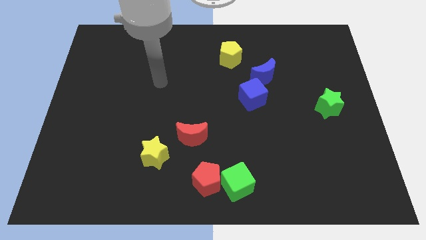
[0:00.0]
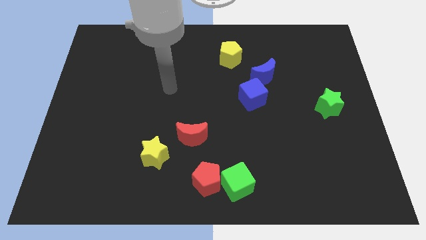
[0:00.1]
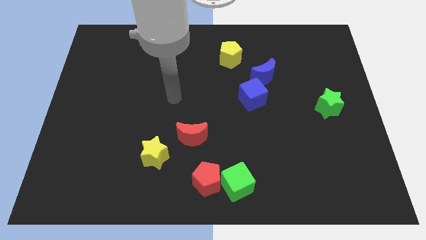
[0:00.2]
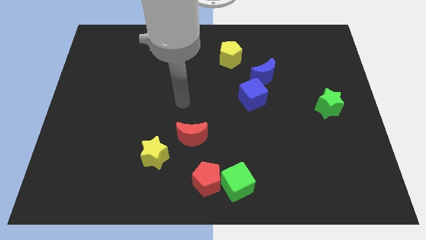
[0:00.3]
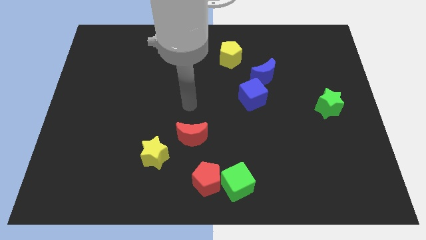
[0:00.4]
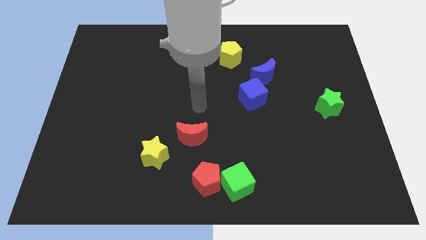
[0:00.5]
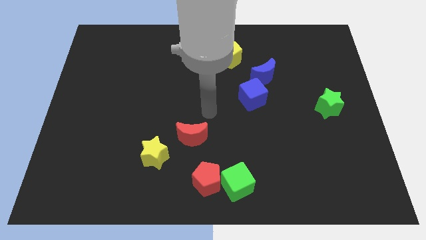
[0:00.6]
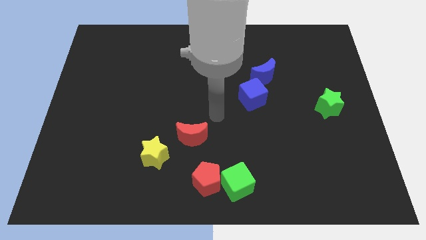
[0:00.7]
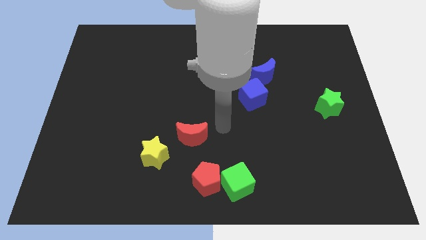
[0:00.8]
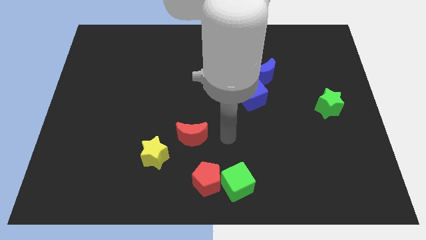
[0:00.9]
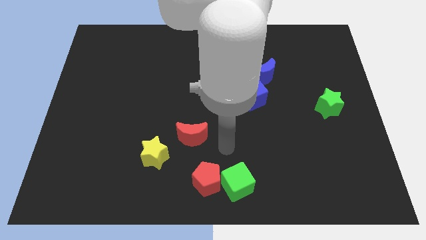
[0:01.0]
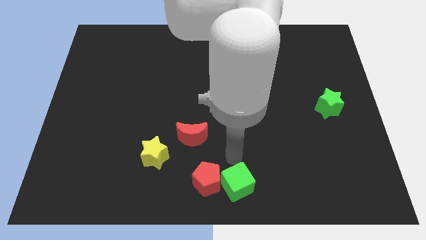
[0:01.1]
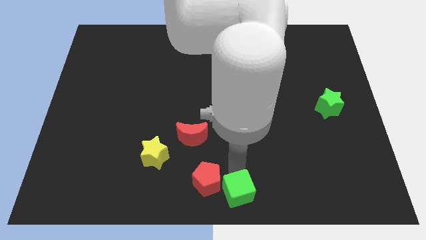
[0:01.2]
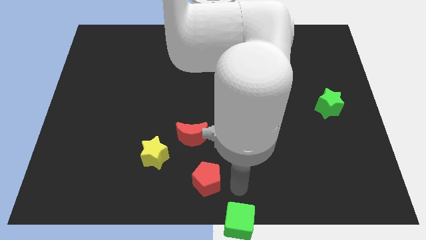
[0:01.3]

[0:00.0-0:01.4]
pull the red pentagon apart from the green cube

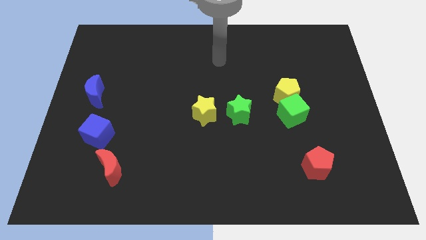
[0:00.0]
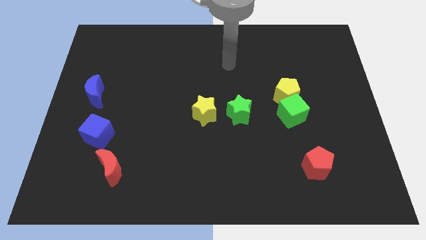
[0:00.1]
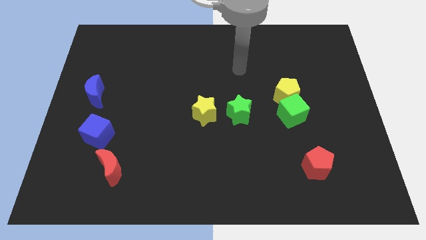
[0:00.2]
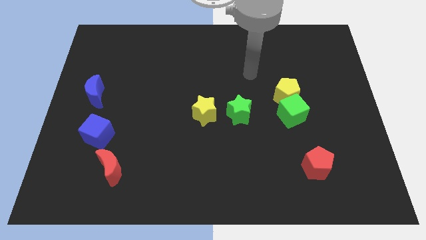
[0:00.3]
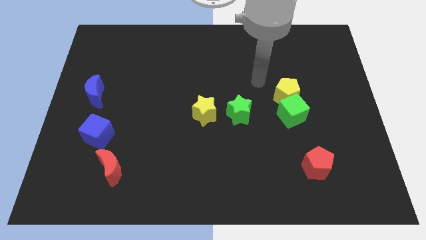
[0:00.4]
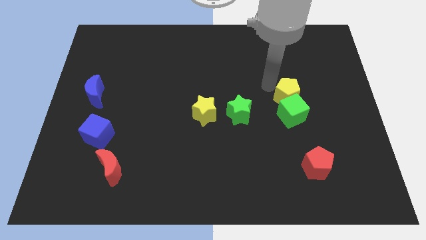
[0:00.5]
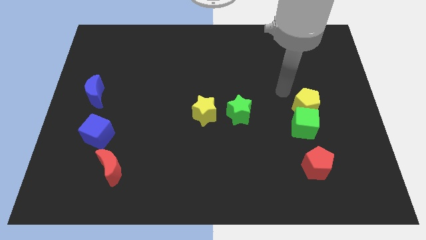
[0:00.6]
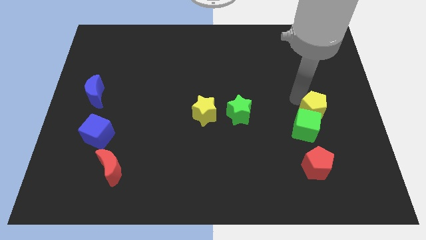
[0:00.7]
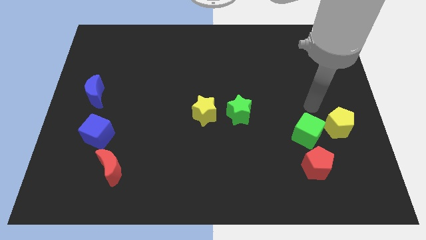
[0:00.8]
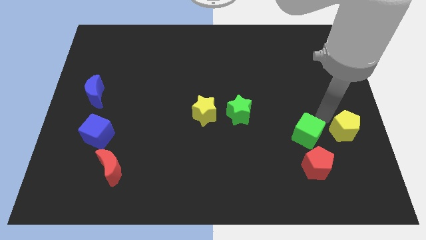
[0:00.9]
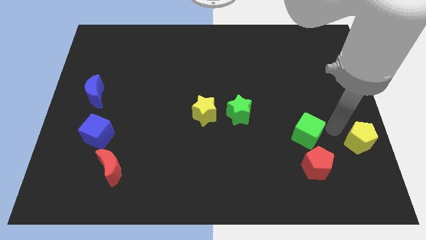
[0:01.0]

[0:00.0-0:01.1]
separate the green cube from the yellow pentagon

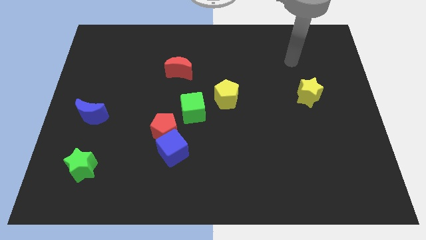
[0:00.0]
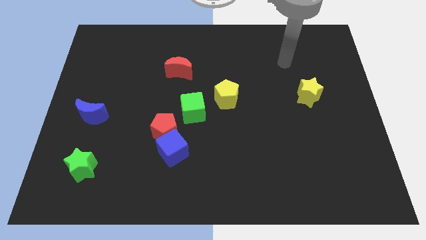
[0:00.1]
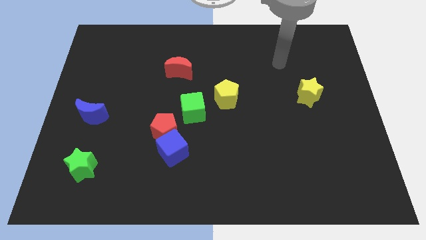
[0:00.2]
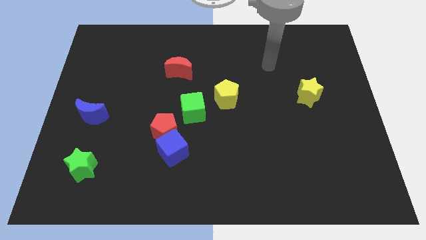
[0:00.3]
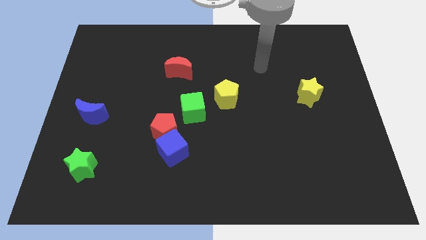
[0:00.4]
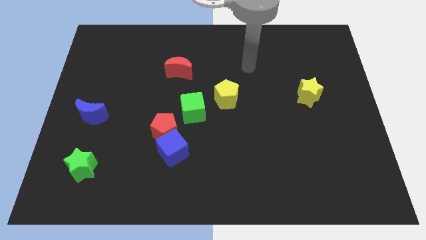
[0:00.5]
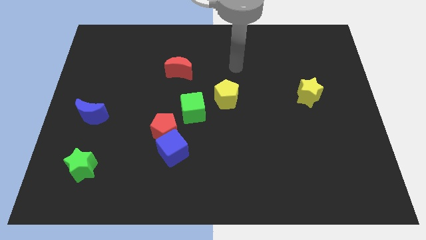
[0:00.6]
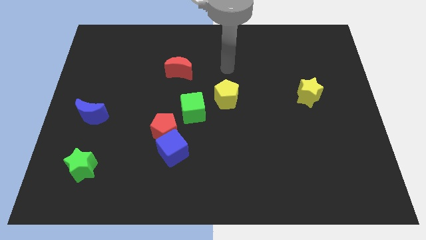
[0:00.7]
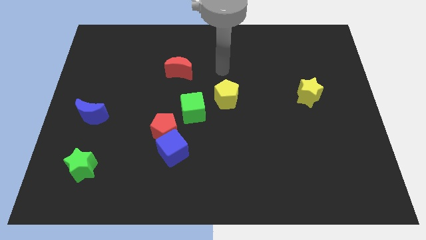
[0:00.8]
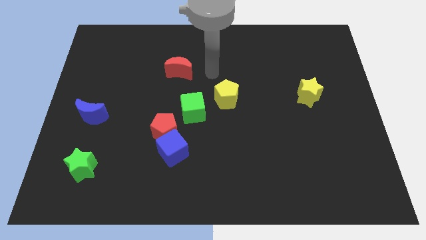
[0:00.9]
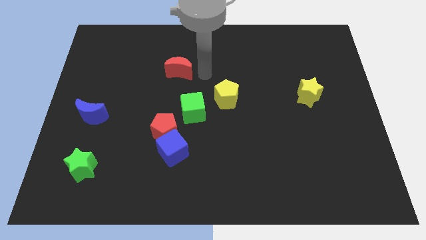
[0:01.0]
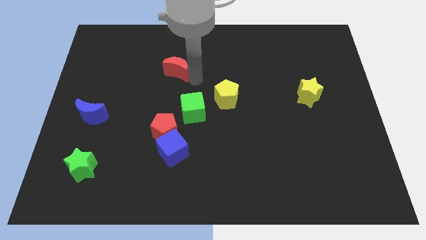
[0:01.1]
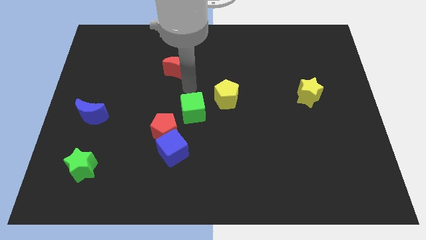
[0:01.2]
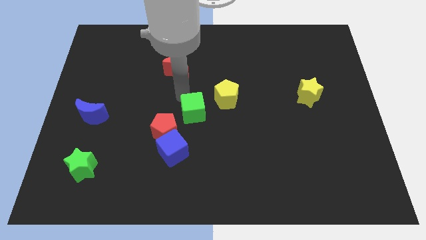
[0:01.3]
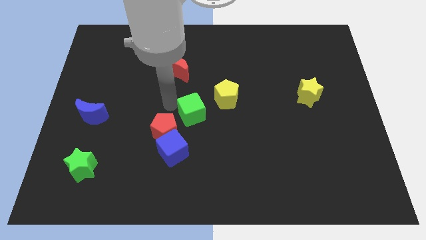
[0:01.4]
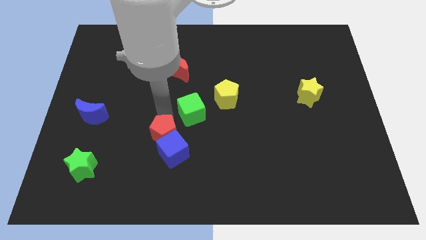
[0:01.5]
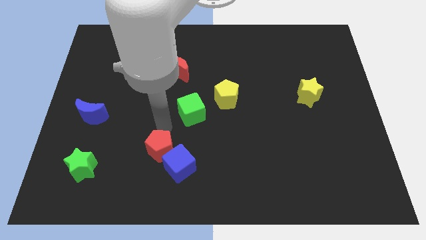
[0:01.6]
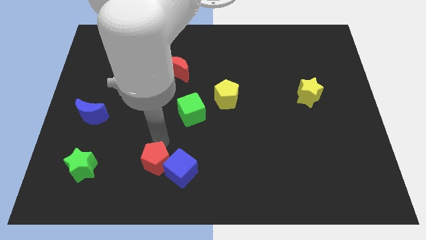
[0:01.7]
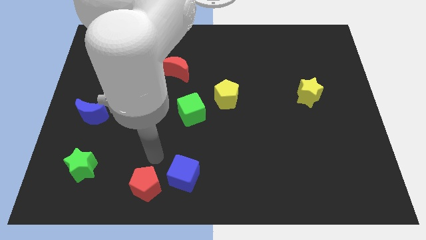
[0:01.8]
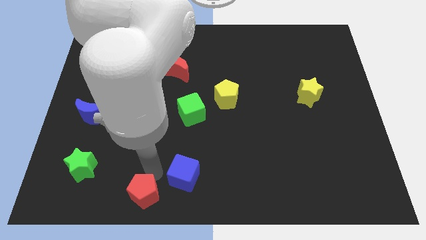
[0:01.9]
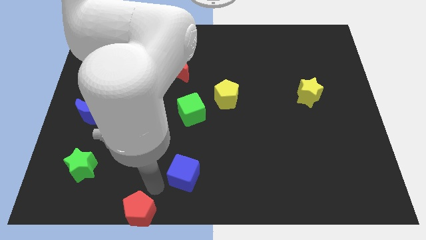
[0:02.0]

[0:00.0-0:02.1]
separate the blue cube from the red pentagon

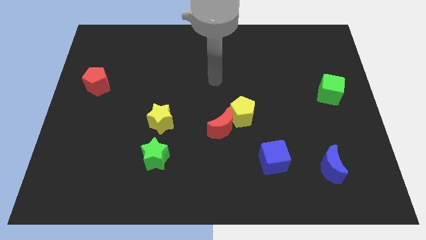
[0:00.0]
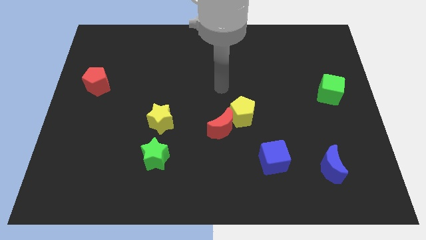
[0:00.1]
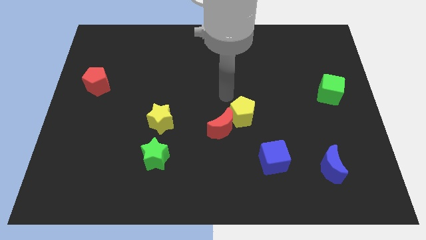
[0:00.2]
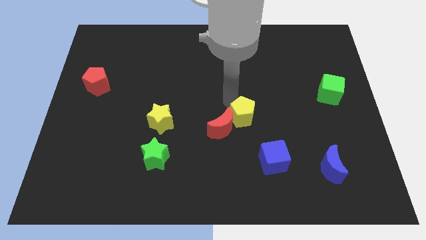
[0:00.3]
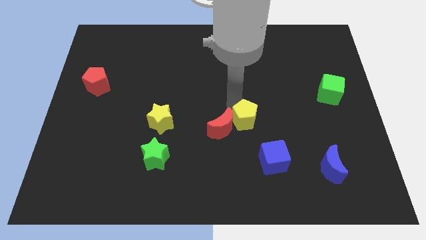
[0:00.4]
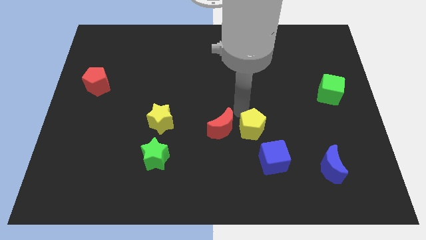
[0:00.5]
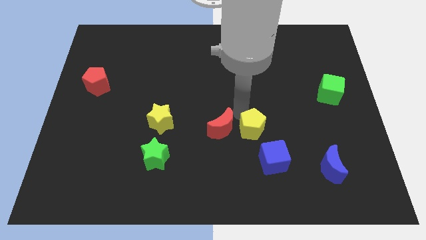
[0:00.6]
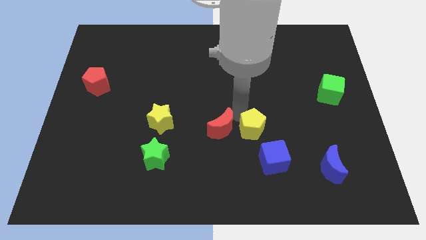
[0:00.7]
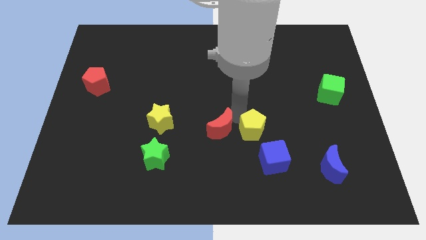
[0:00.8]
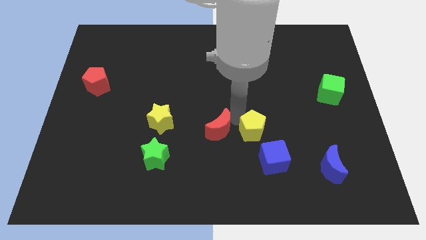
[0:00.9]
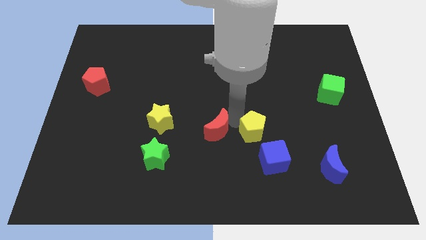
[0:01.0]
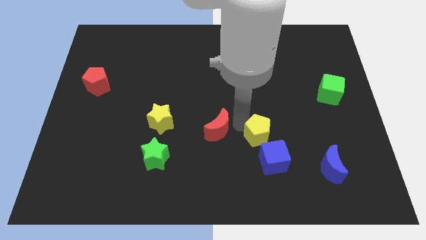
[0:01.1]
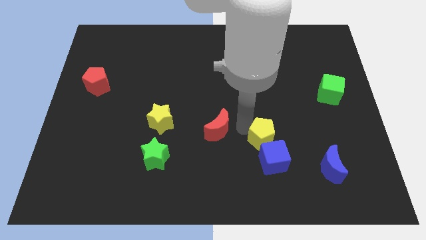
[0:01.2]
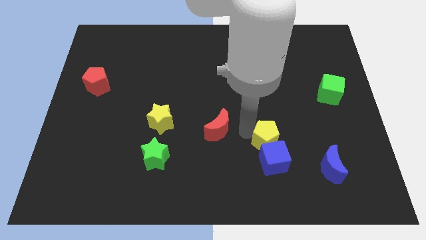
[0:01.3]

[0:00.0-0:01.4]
pull the red moon apart from the yellow pentagon

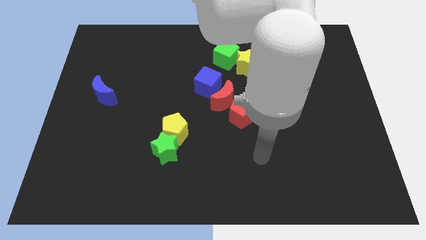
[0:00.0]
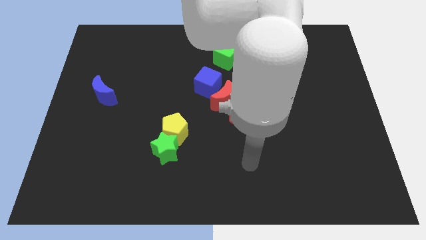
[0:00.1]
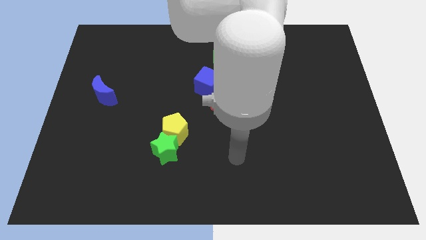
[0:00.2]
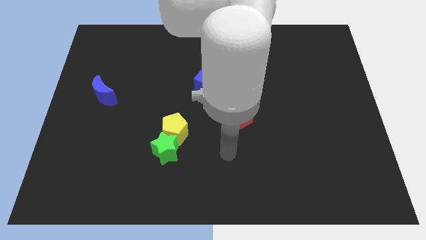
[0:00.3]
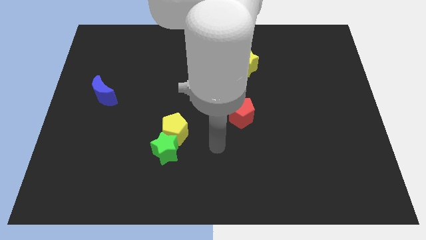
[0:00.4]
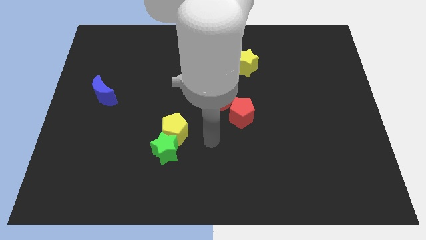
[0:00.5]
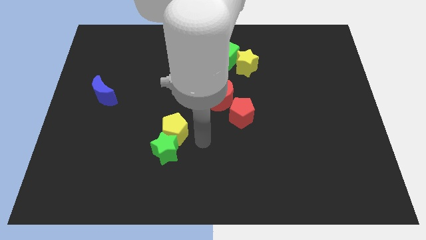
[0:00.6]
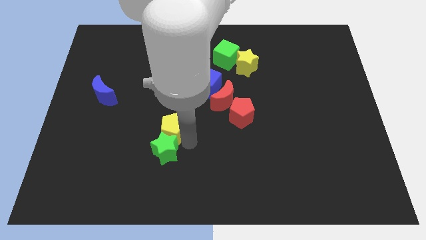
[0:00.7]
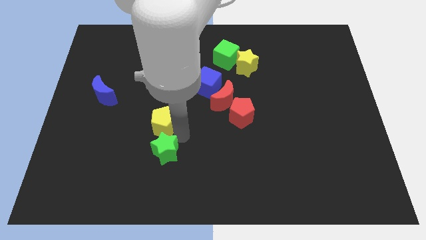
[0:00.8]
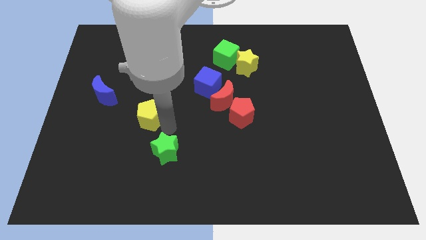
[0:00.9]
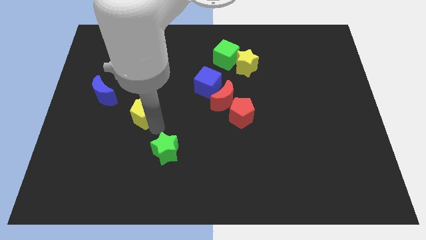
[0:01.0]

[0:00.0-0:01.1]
move the green star away from the yellow pentagon

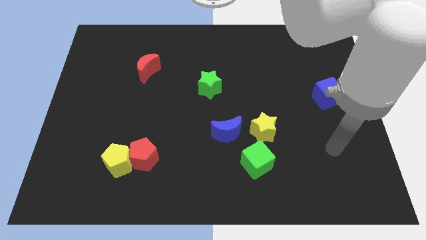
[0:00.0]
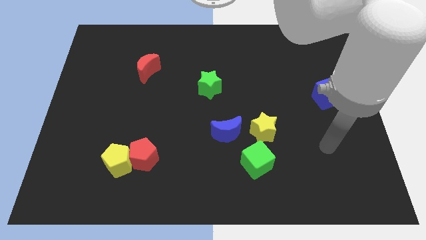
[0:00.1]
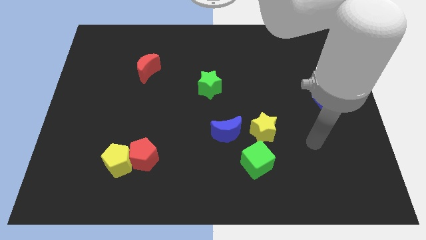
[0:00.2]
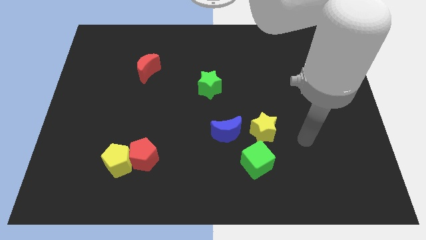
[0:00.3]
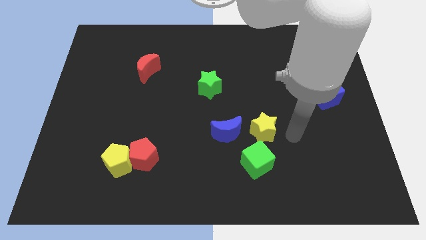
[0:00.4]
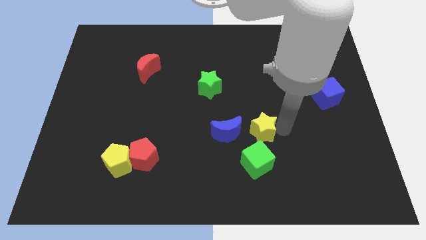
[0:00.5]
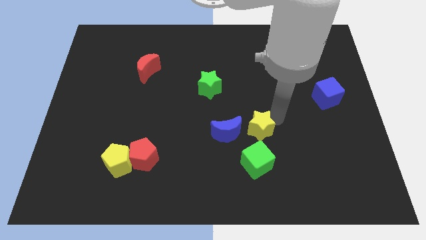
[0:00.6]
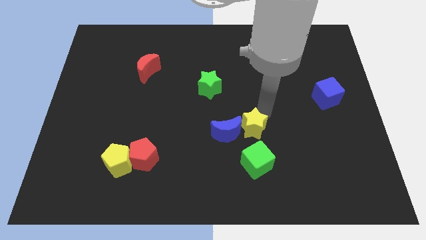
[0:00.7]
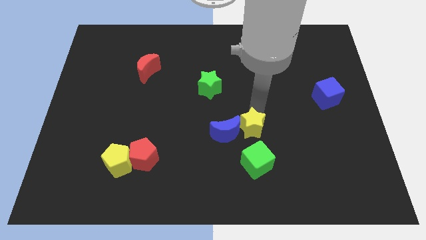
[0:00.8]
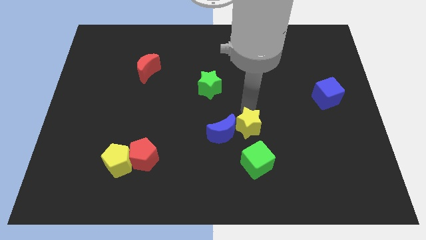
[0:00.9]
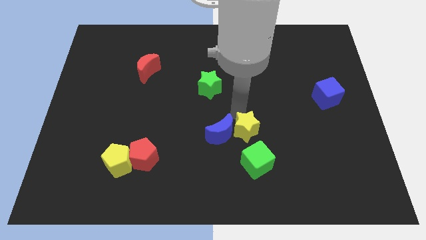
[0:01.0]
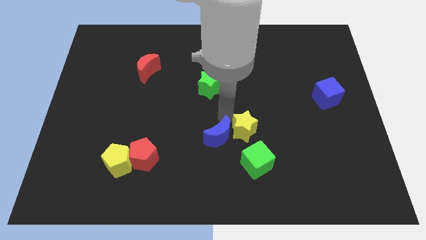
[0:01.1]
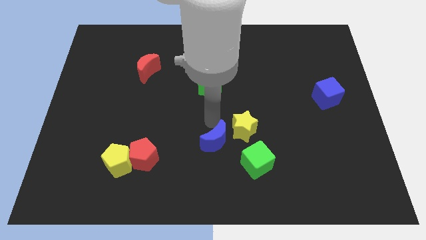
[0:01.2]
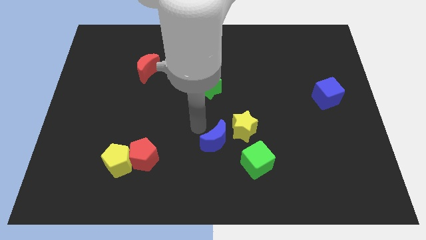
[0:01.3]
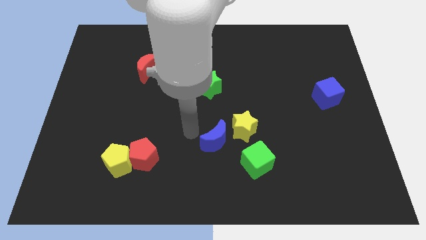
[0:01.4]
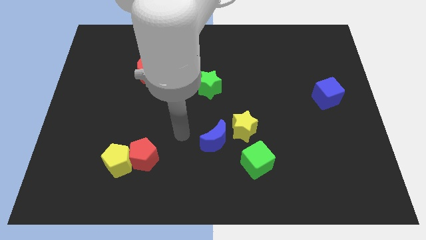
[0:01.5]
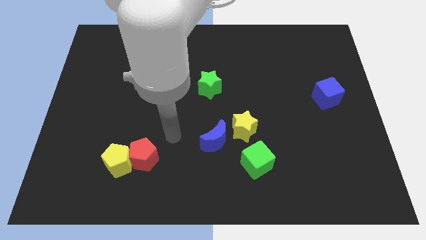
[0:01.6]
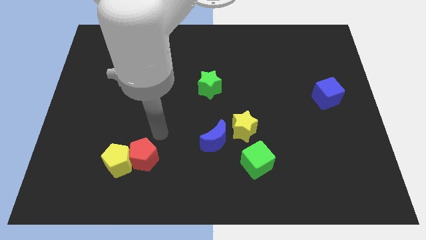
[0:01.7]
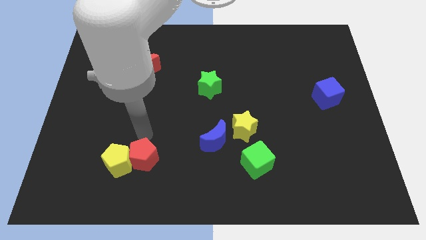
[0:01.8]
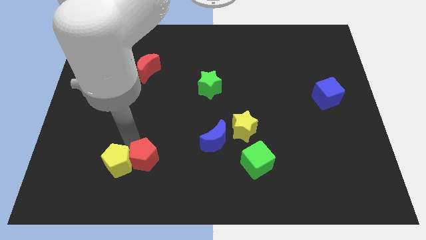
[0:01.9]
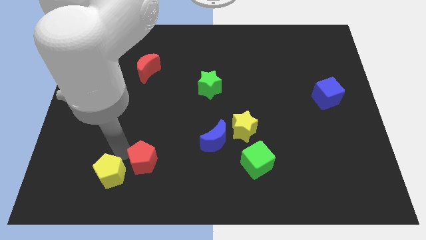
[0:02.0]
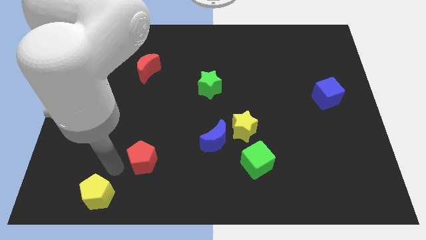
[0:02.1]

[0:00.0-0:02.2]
pull the red pentagon apart from the yellow pentagon
